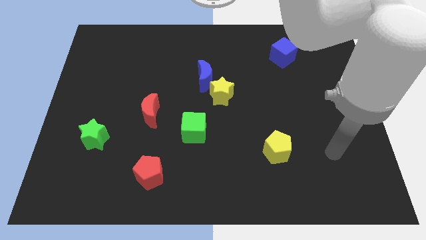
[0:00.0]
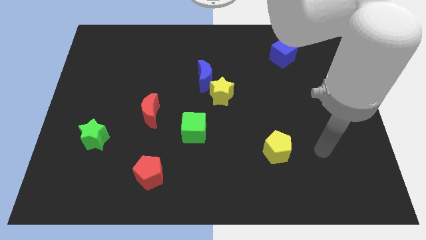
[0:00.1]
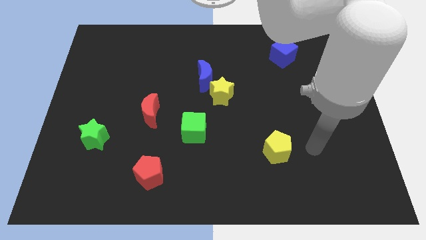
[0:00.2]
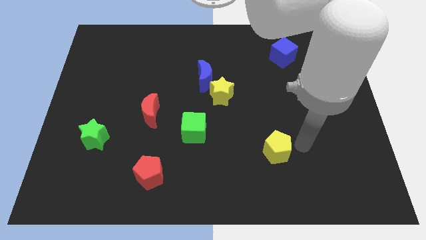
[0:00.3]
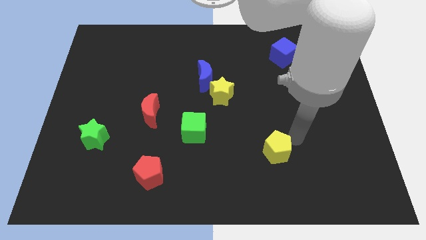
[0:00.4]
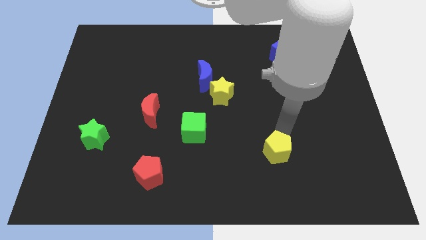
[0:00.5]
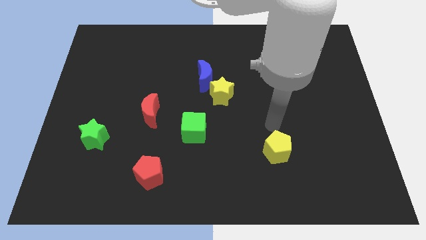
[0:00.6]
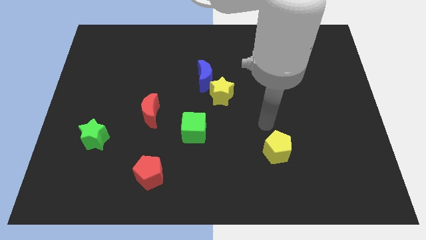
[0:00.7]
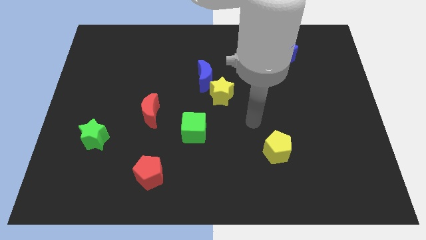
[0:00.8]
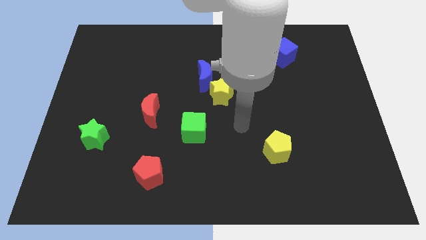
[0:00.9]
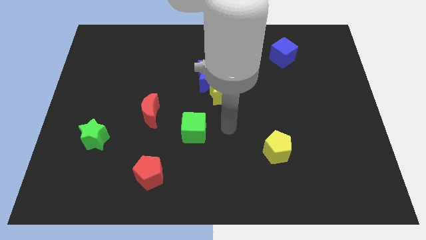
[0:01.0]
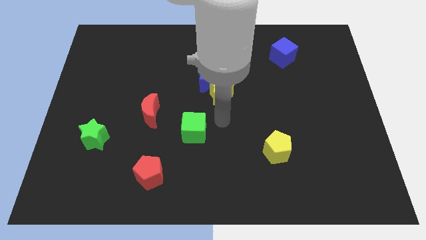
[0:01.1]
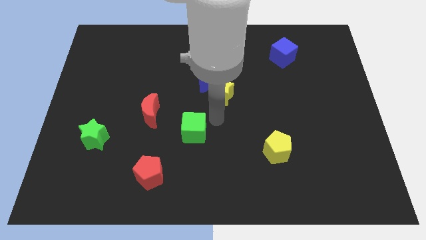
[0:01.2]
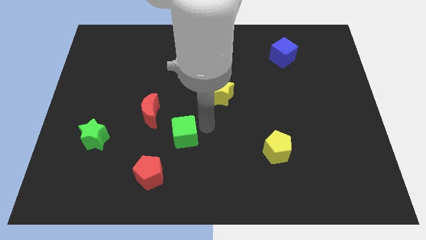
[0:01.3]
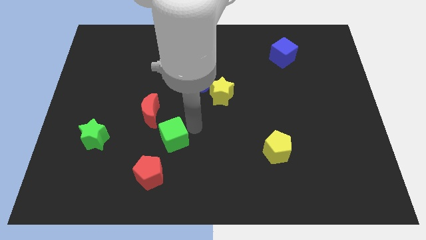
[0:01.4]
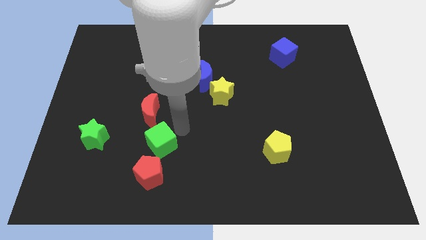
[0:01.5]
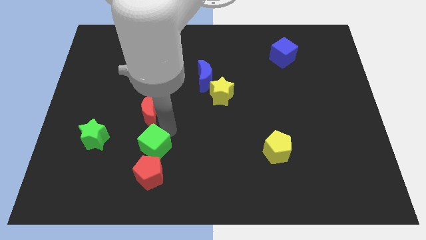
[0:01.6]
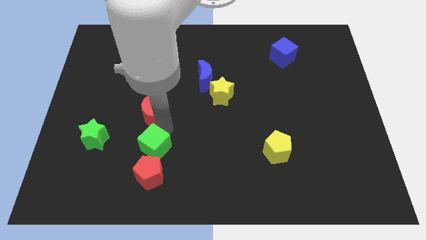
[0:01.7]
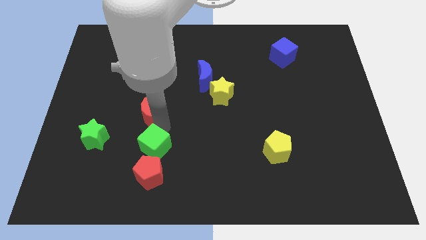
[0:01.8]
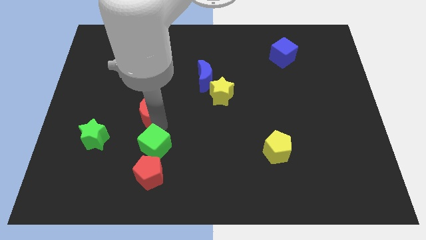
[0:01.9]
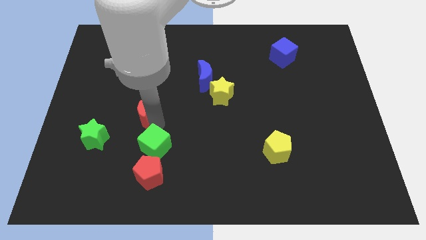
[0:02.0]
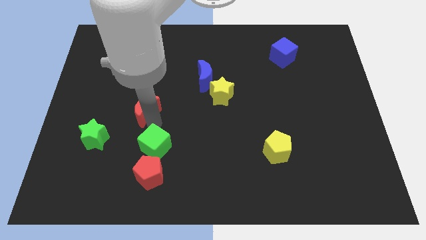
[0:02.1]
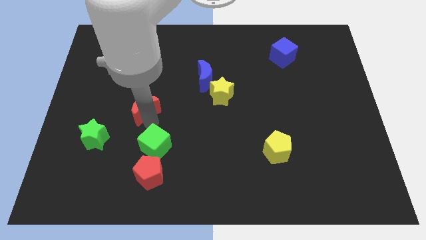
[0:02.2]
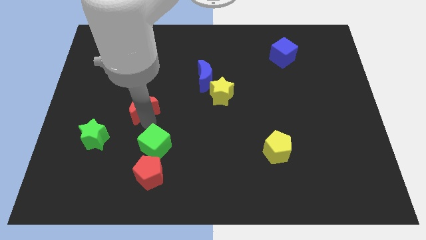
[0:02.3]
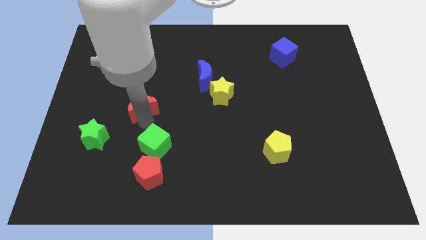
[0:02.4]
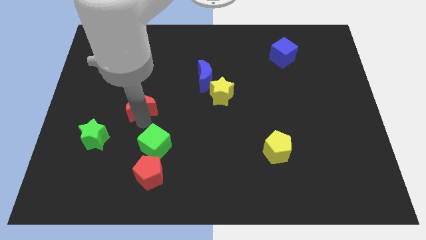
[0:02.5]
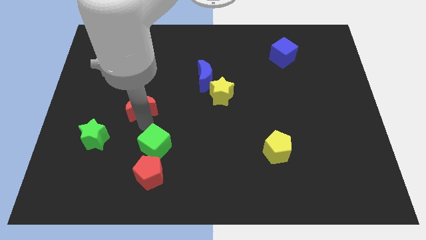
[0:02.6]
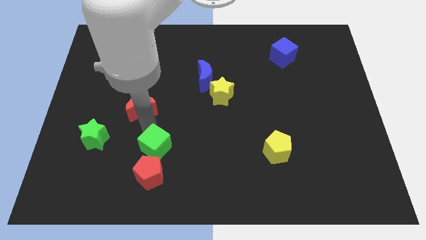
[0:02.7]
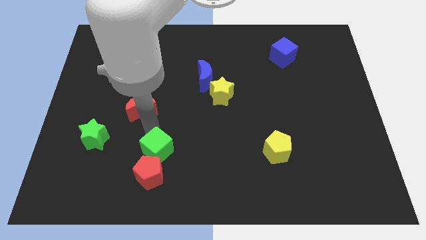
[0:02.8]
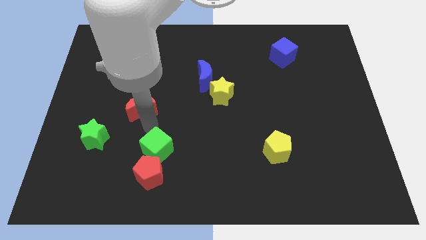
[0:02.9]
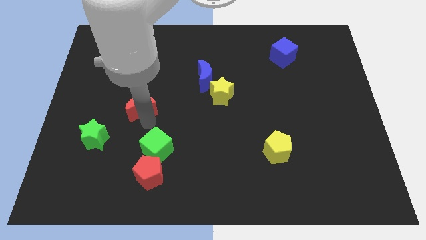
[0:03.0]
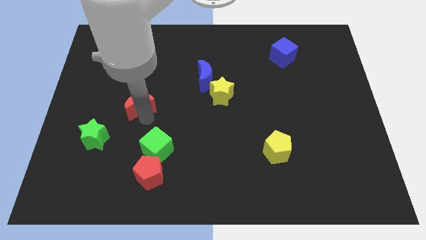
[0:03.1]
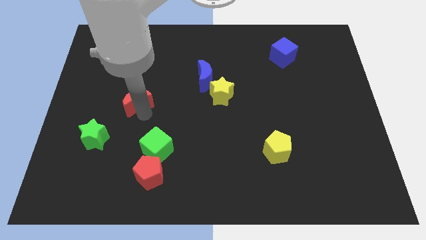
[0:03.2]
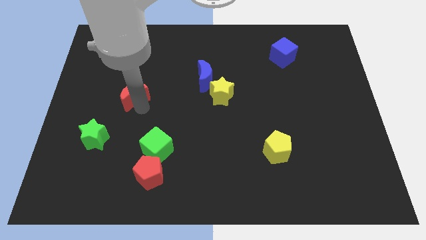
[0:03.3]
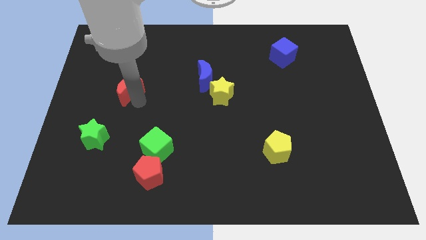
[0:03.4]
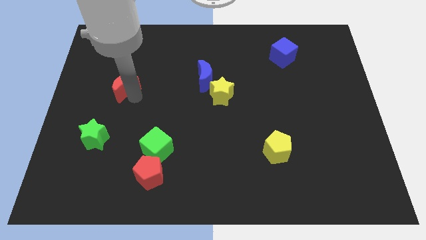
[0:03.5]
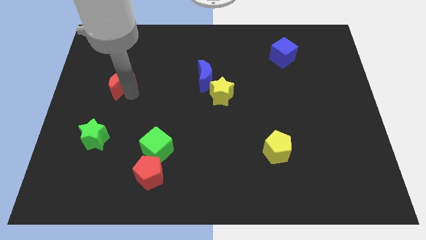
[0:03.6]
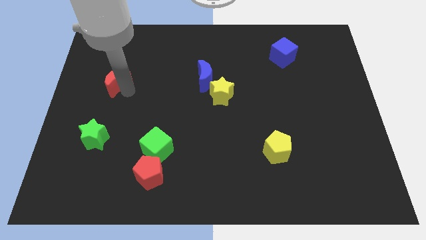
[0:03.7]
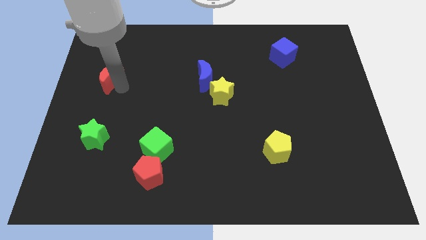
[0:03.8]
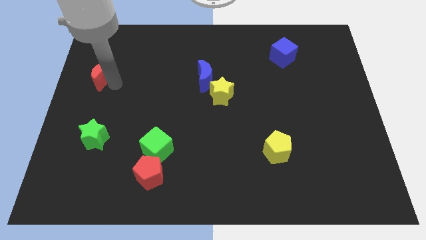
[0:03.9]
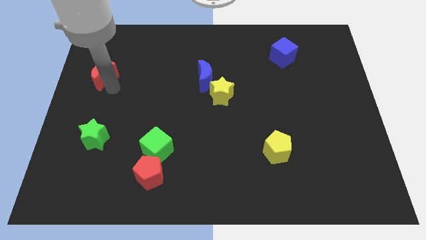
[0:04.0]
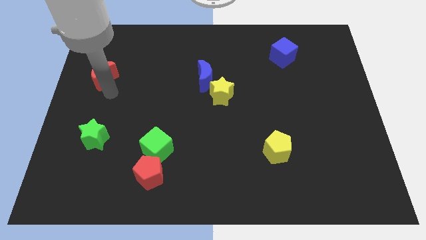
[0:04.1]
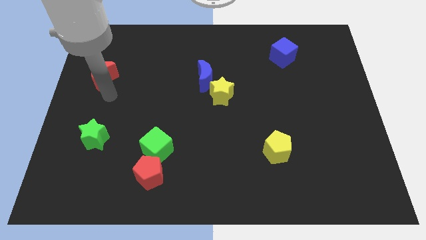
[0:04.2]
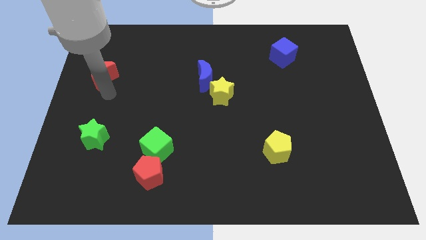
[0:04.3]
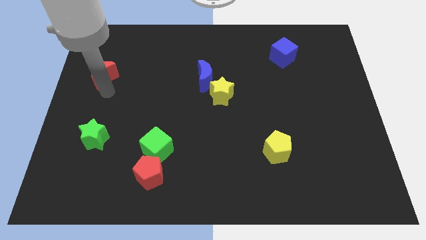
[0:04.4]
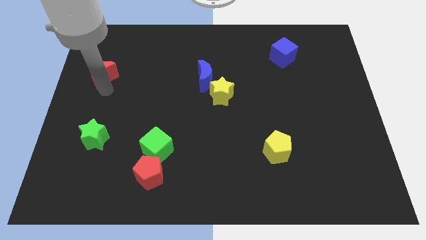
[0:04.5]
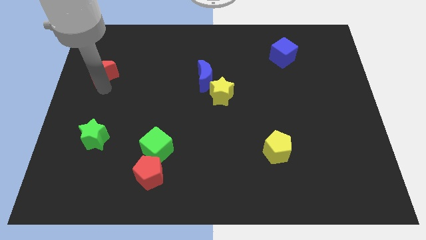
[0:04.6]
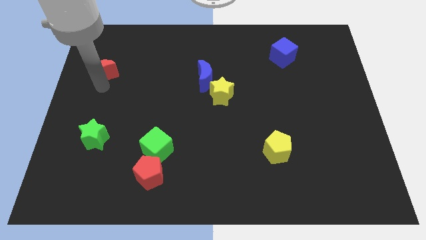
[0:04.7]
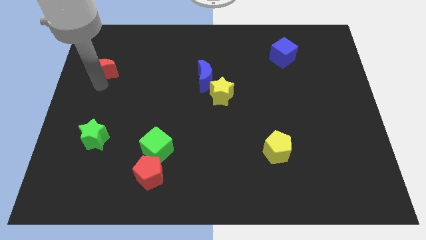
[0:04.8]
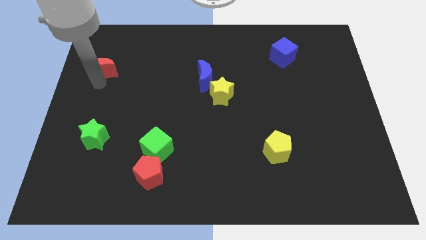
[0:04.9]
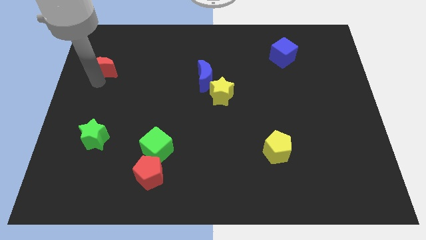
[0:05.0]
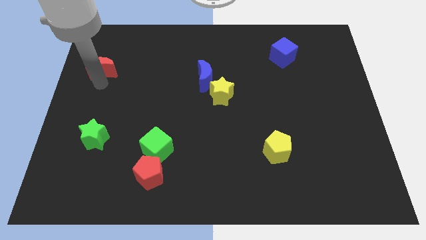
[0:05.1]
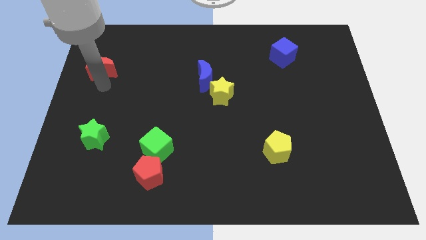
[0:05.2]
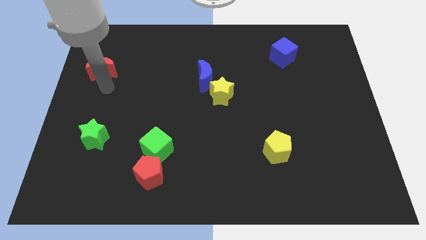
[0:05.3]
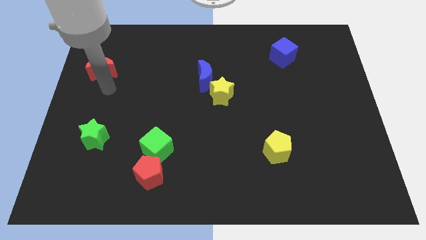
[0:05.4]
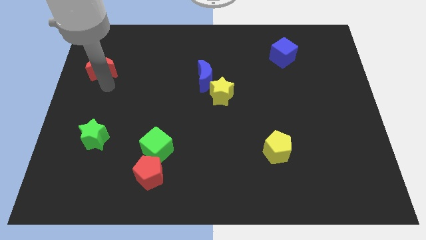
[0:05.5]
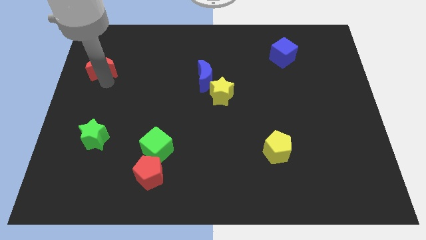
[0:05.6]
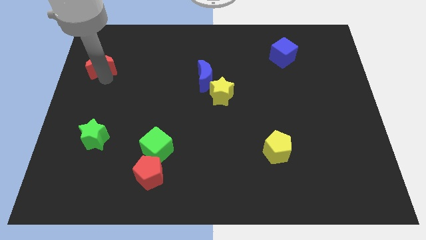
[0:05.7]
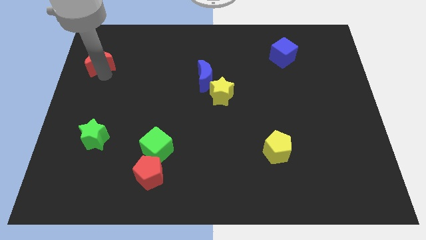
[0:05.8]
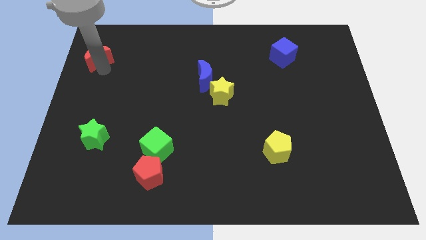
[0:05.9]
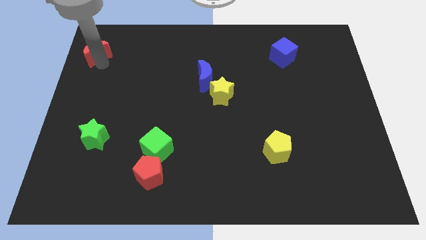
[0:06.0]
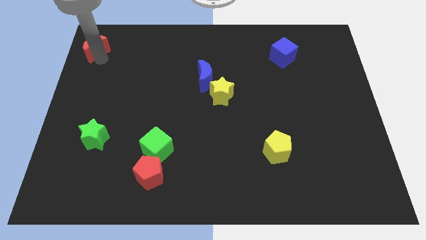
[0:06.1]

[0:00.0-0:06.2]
move the red moon to the top left of the board
